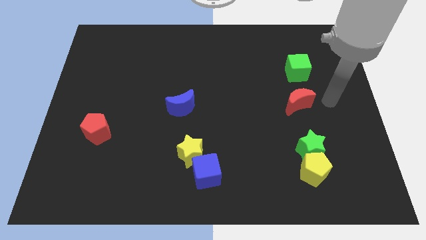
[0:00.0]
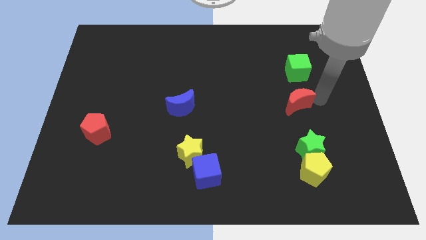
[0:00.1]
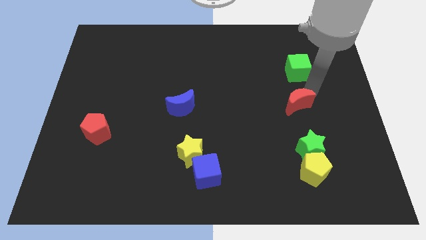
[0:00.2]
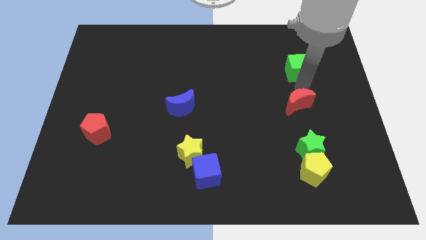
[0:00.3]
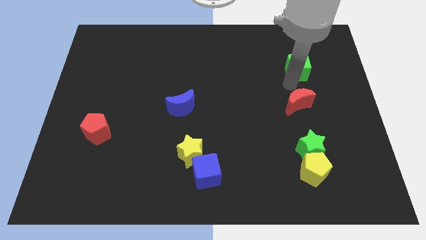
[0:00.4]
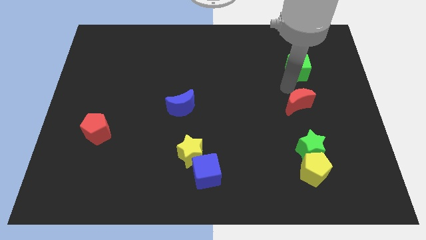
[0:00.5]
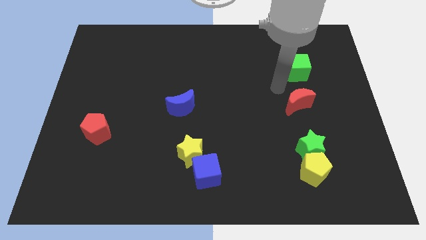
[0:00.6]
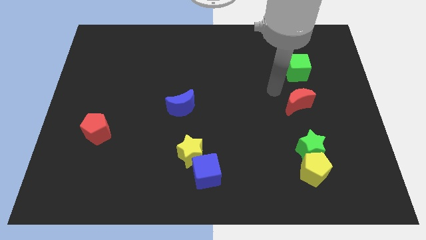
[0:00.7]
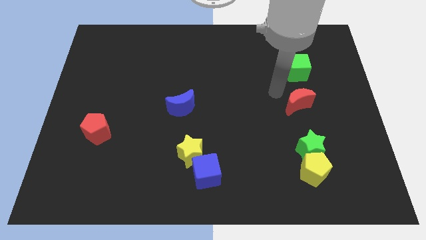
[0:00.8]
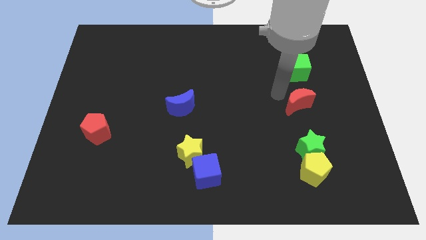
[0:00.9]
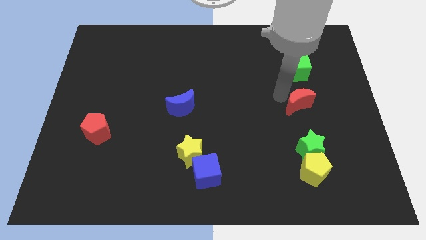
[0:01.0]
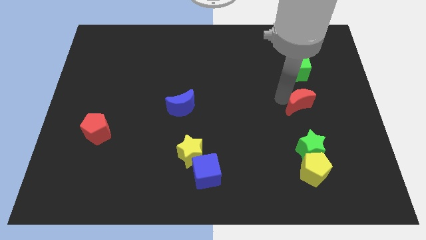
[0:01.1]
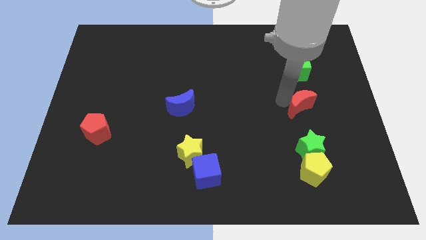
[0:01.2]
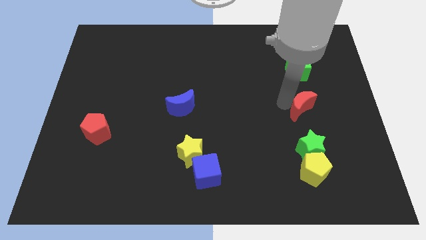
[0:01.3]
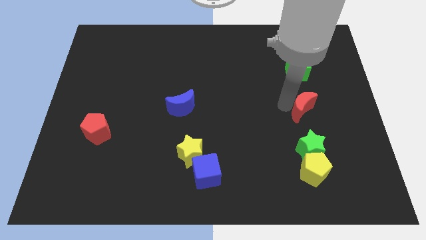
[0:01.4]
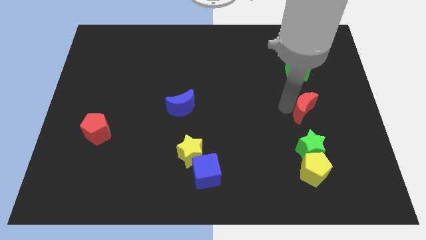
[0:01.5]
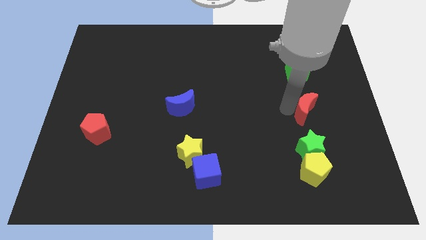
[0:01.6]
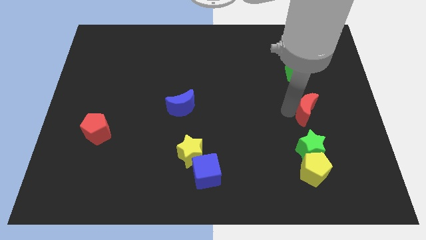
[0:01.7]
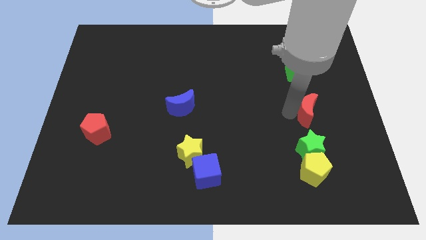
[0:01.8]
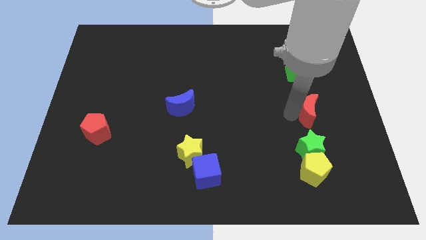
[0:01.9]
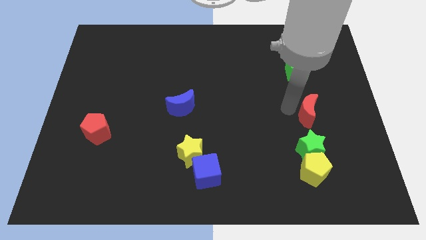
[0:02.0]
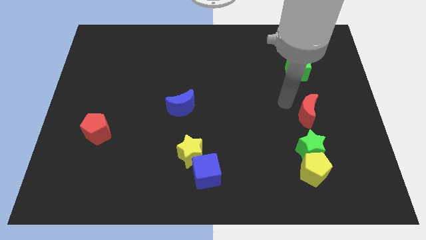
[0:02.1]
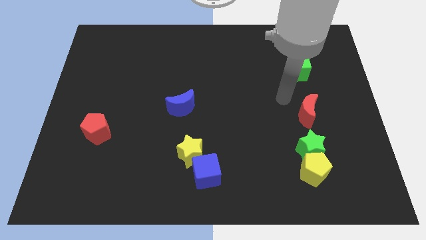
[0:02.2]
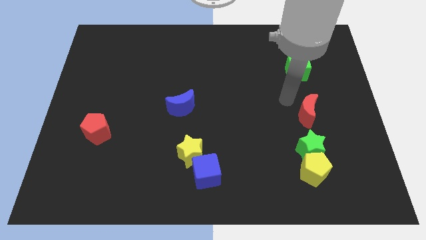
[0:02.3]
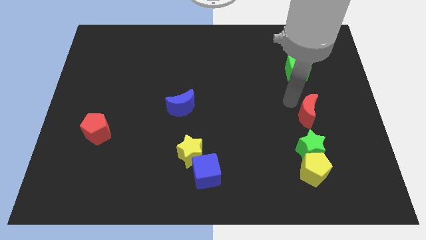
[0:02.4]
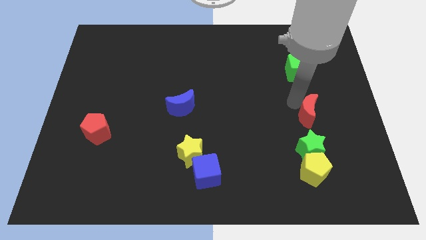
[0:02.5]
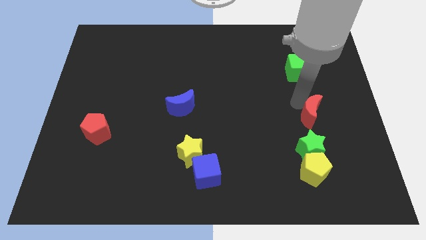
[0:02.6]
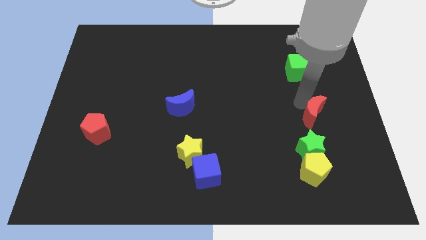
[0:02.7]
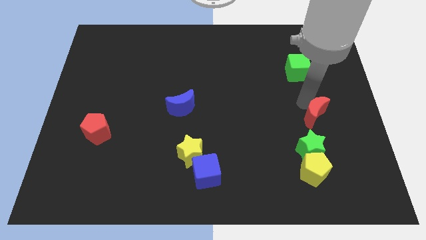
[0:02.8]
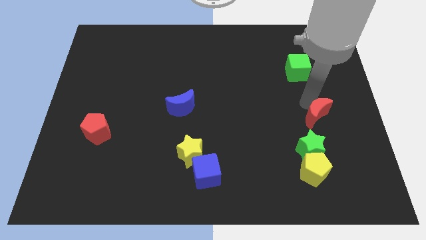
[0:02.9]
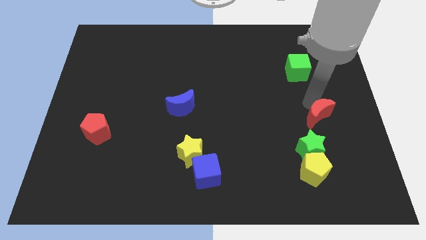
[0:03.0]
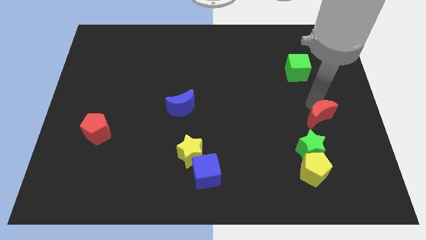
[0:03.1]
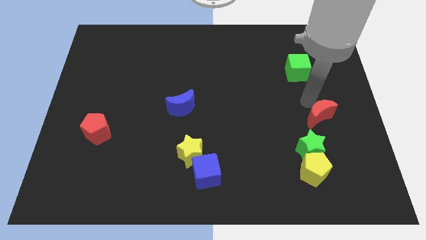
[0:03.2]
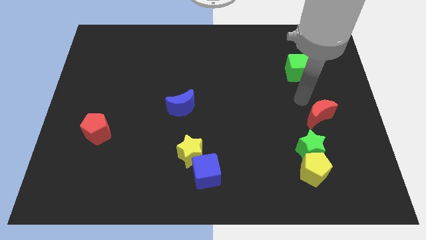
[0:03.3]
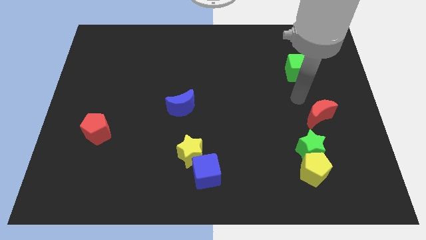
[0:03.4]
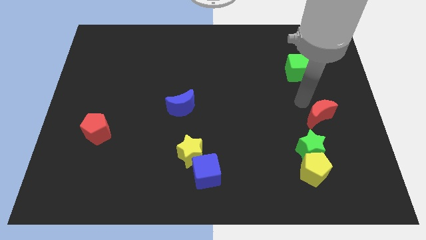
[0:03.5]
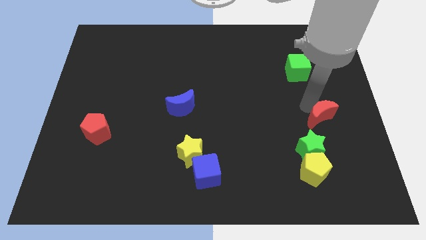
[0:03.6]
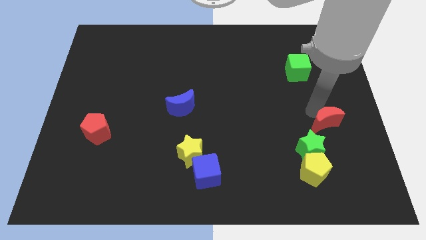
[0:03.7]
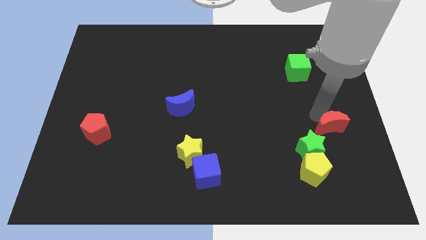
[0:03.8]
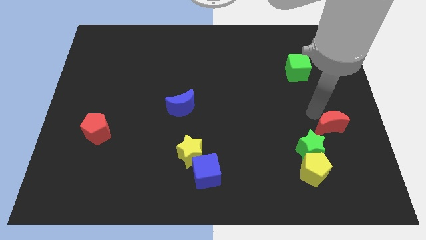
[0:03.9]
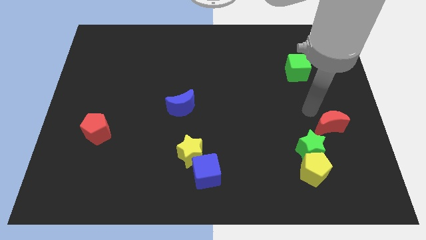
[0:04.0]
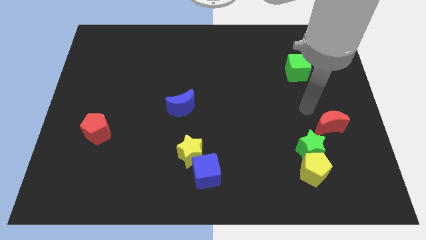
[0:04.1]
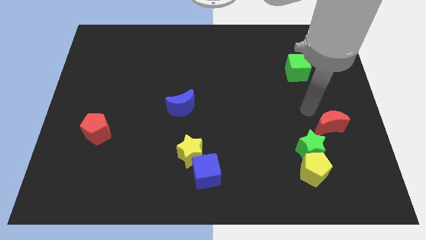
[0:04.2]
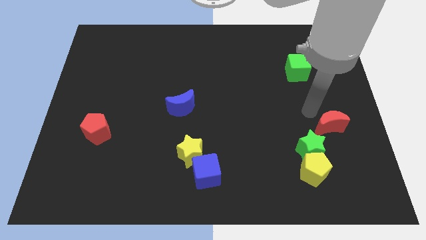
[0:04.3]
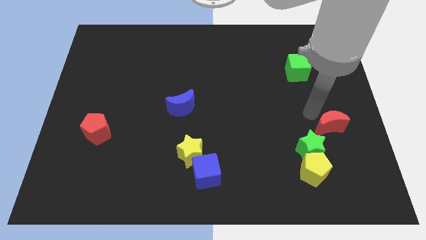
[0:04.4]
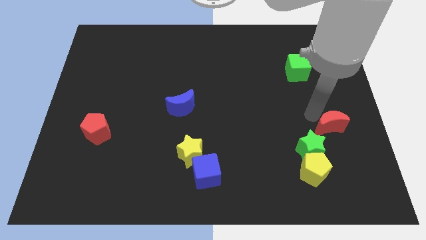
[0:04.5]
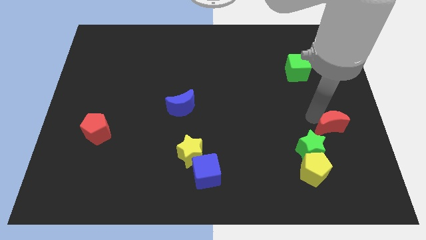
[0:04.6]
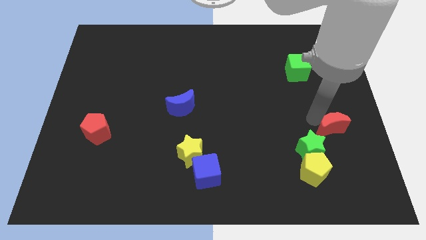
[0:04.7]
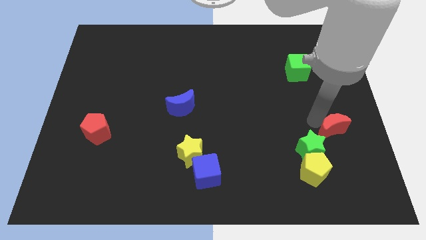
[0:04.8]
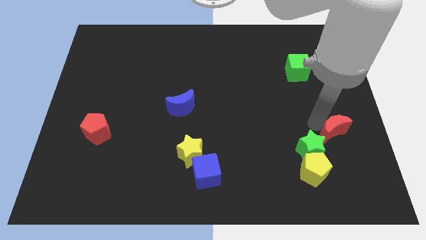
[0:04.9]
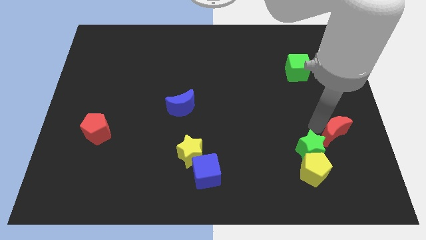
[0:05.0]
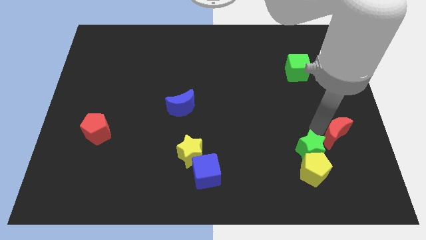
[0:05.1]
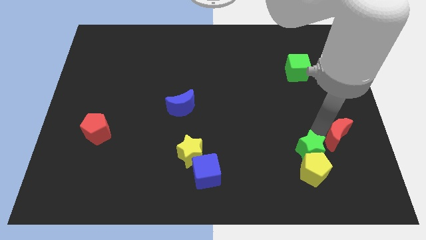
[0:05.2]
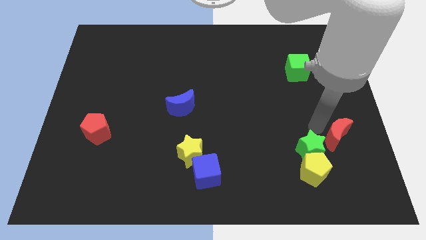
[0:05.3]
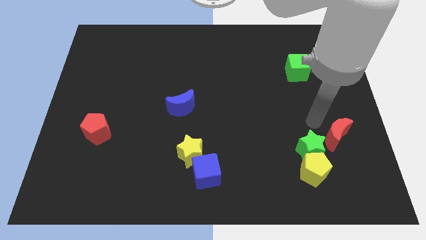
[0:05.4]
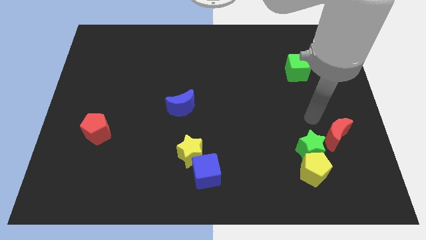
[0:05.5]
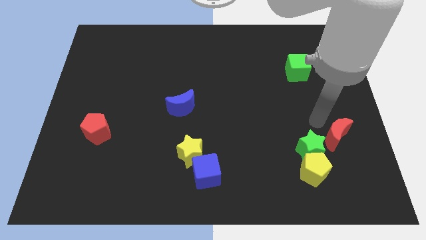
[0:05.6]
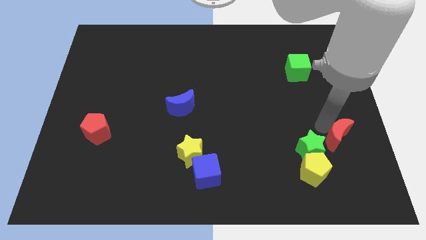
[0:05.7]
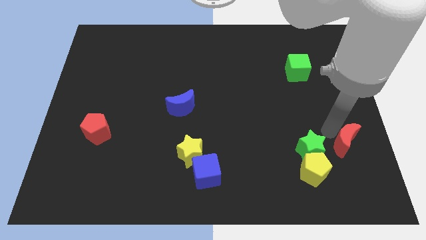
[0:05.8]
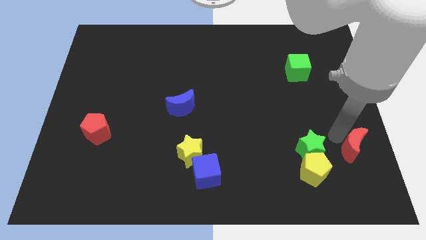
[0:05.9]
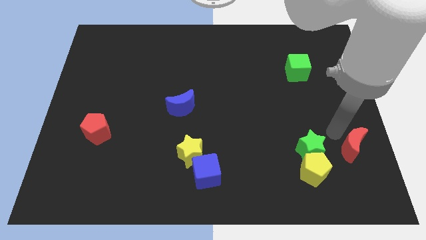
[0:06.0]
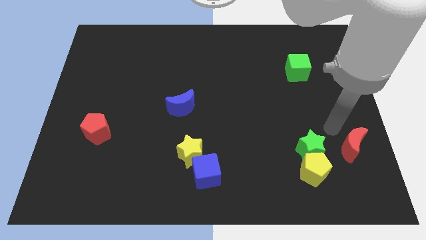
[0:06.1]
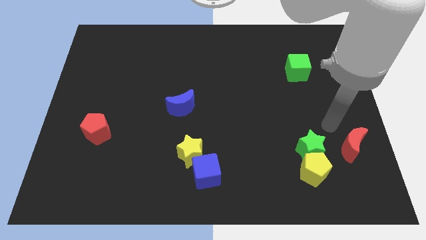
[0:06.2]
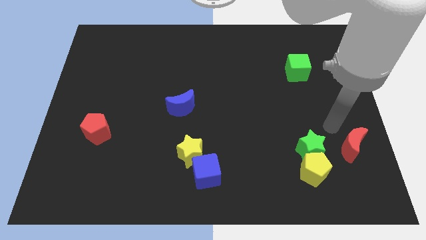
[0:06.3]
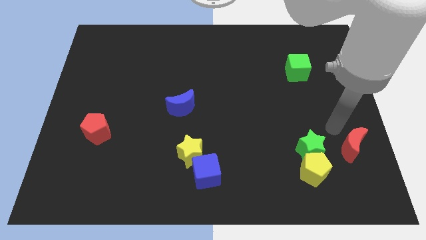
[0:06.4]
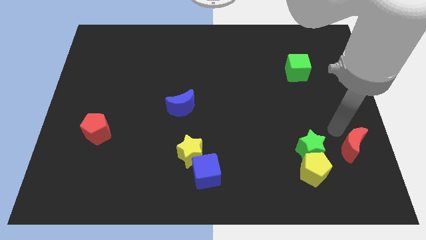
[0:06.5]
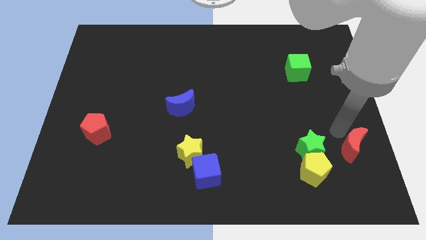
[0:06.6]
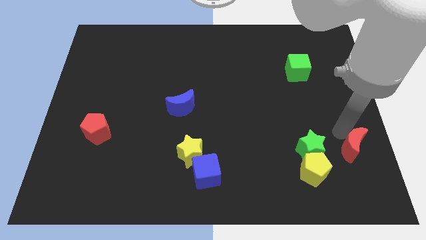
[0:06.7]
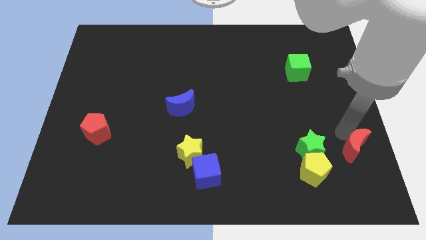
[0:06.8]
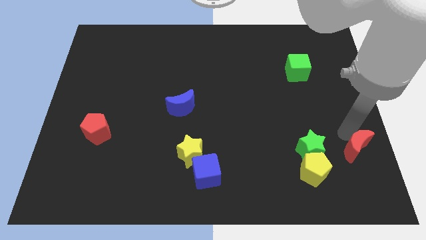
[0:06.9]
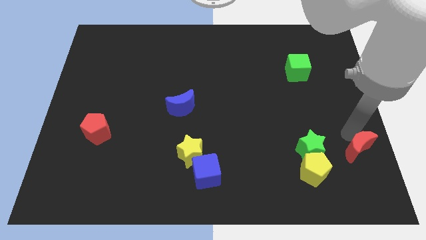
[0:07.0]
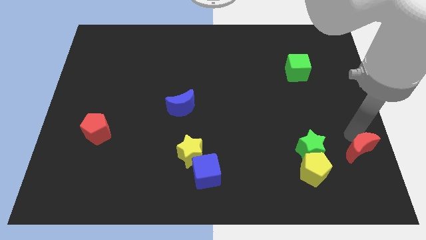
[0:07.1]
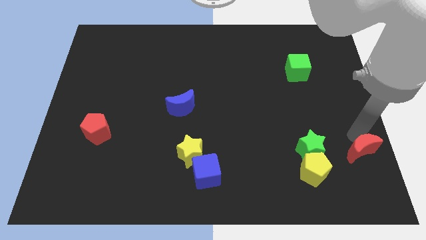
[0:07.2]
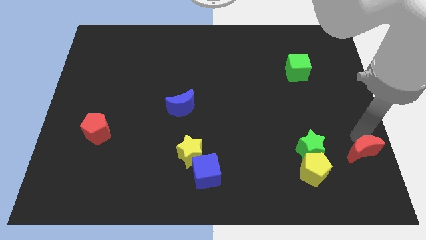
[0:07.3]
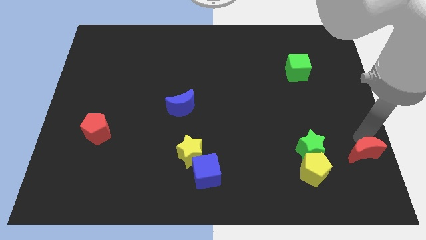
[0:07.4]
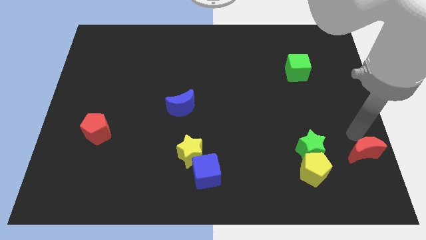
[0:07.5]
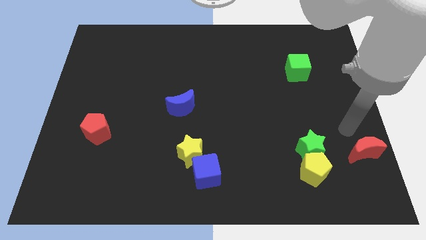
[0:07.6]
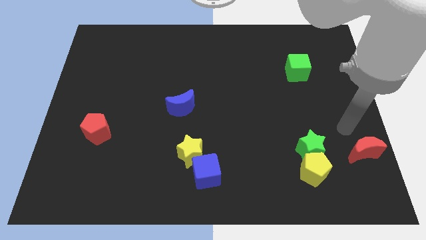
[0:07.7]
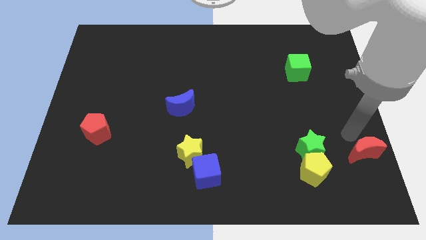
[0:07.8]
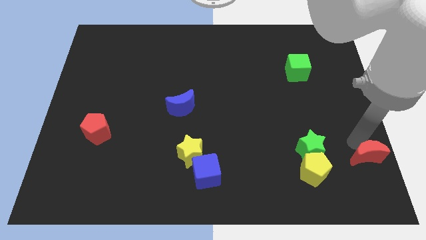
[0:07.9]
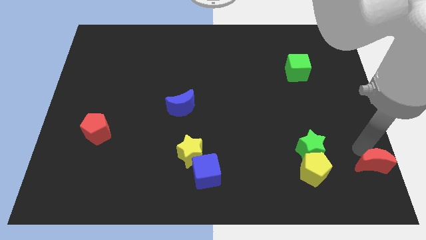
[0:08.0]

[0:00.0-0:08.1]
put the red moon to the bottom right of the board

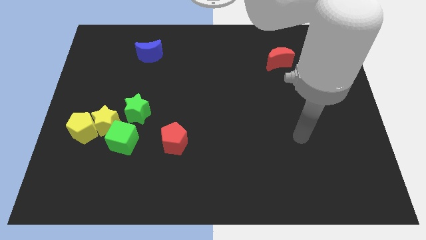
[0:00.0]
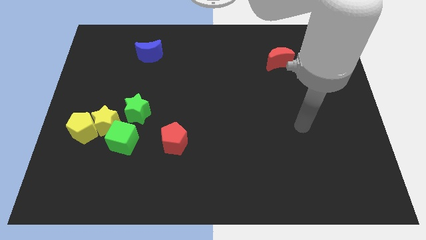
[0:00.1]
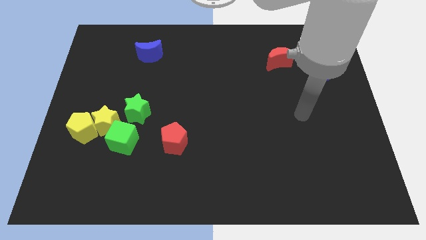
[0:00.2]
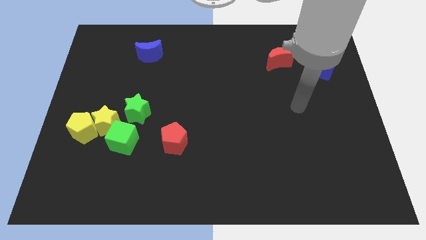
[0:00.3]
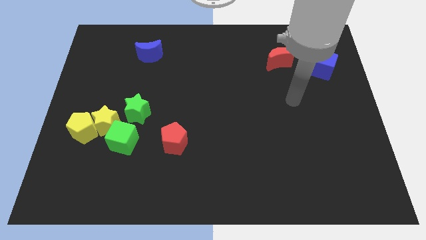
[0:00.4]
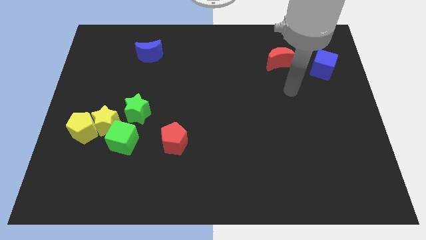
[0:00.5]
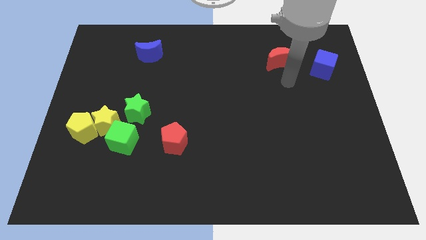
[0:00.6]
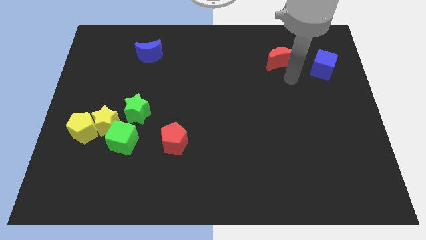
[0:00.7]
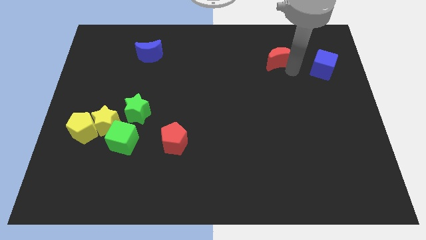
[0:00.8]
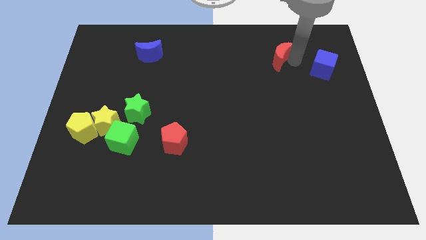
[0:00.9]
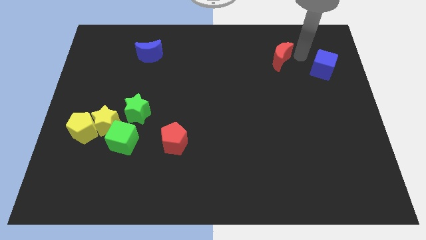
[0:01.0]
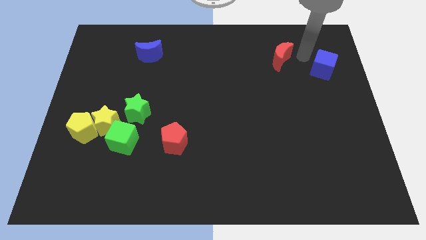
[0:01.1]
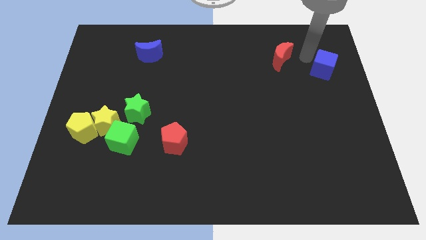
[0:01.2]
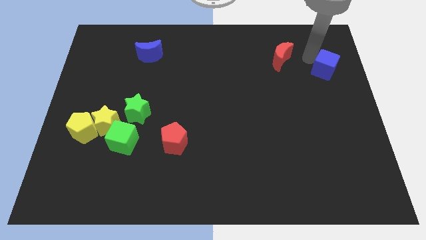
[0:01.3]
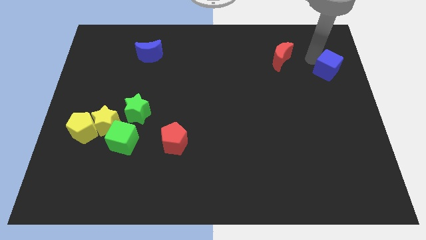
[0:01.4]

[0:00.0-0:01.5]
push the blue cube to the right side of the board
